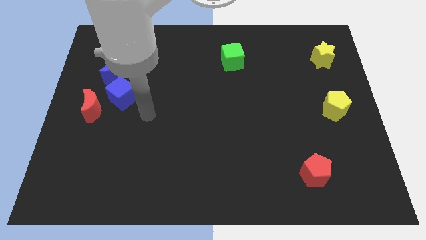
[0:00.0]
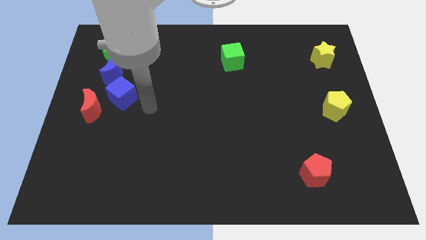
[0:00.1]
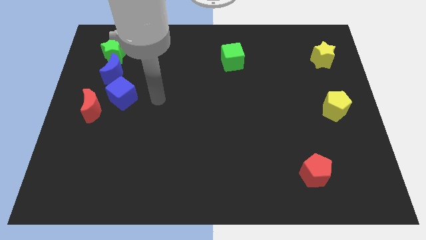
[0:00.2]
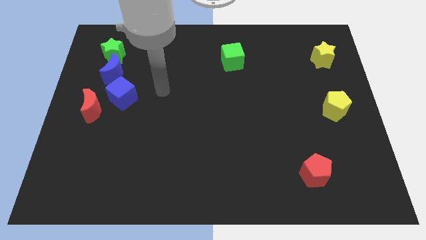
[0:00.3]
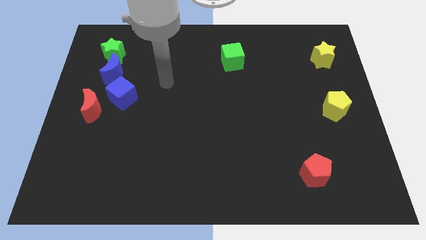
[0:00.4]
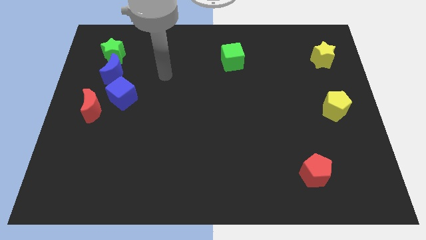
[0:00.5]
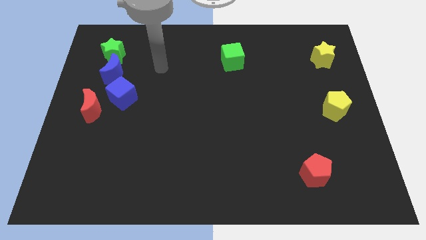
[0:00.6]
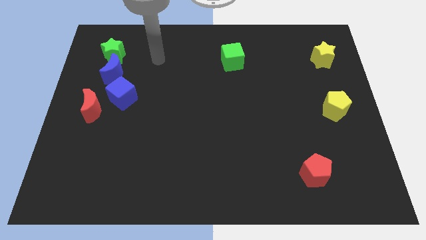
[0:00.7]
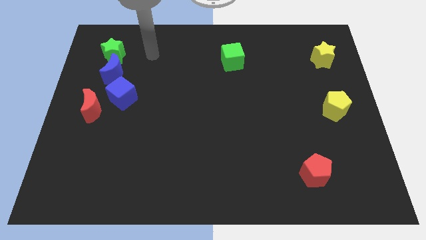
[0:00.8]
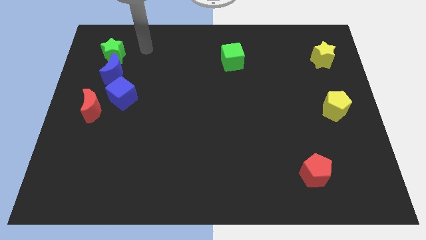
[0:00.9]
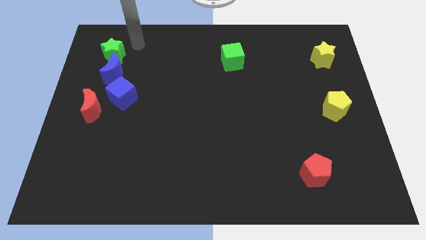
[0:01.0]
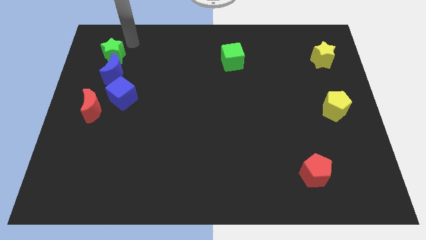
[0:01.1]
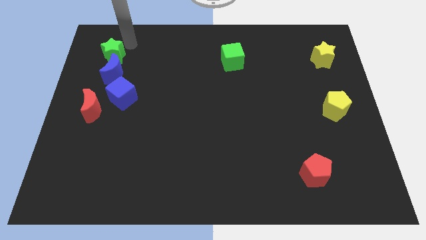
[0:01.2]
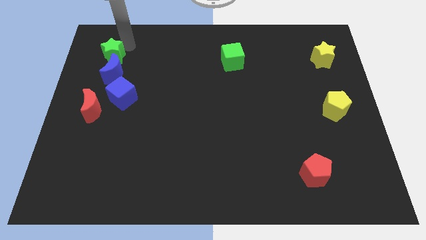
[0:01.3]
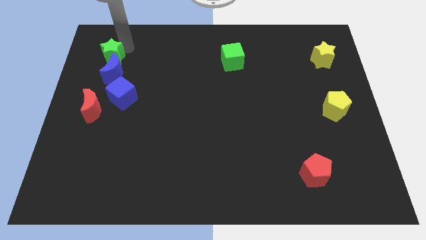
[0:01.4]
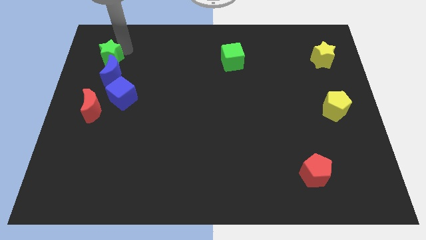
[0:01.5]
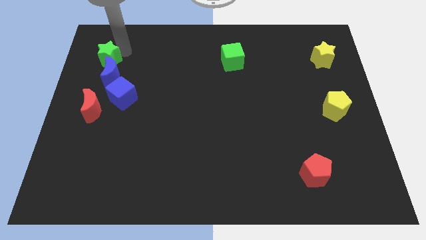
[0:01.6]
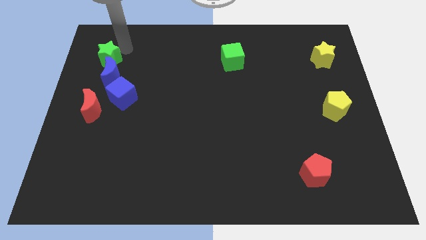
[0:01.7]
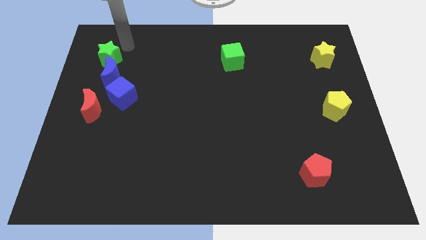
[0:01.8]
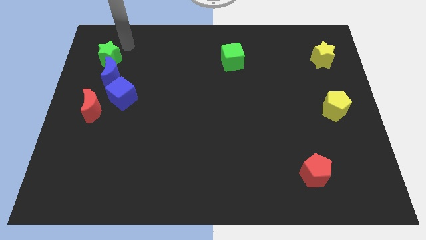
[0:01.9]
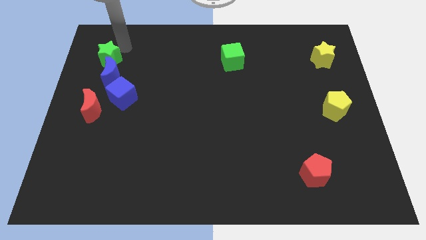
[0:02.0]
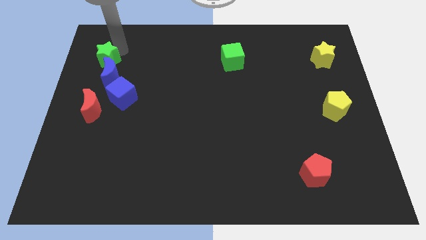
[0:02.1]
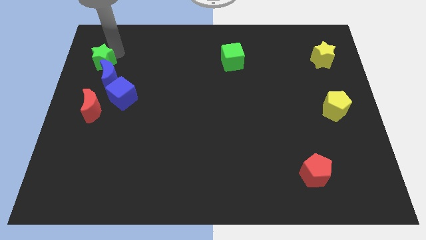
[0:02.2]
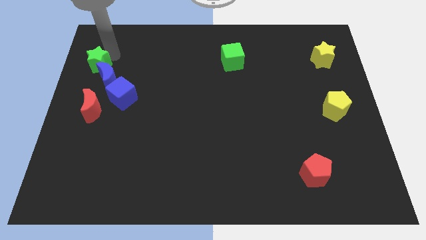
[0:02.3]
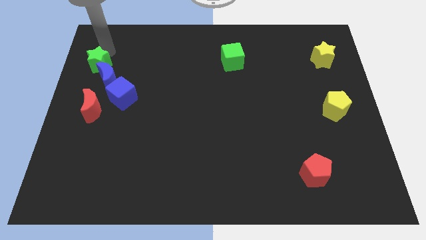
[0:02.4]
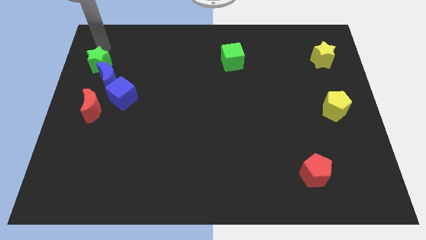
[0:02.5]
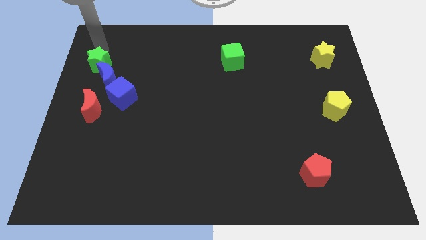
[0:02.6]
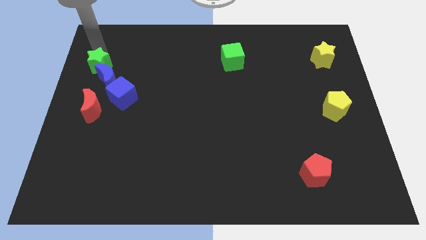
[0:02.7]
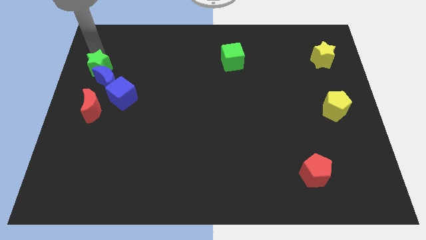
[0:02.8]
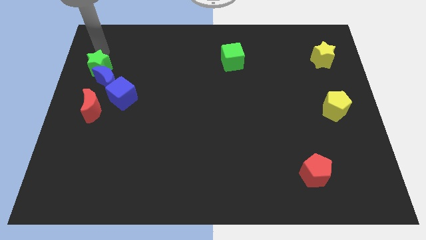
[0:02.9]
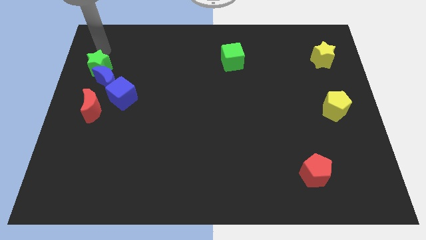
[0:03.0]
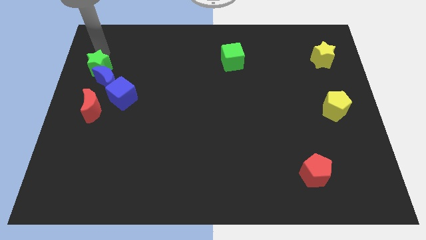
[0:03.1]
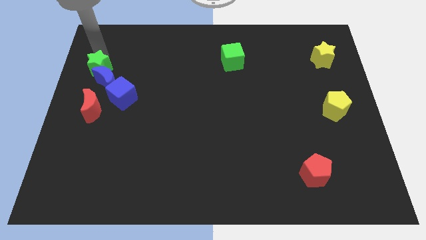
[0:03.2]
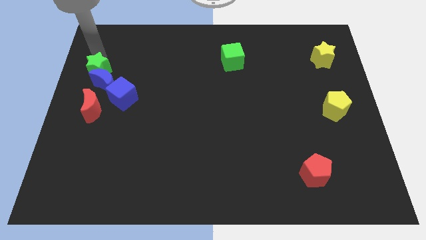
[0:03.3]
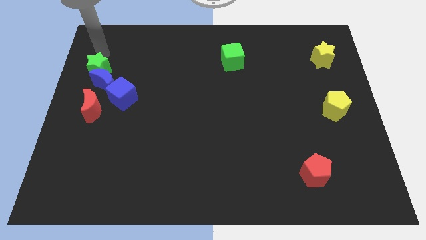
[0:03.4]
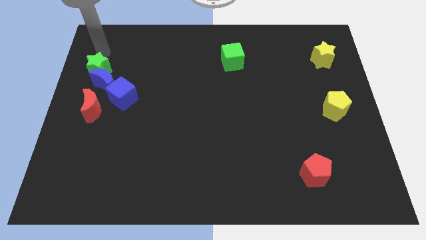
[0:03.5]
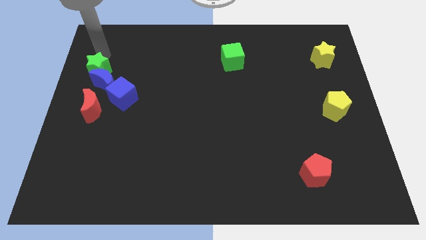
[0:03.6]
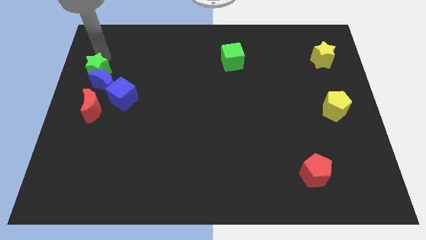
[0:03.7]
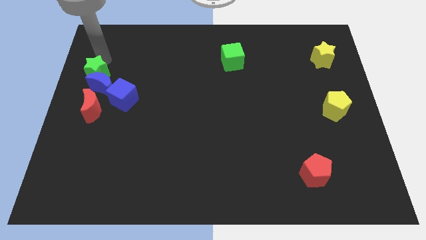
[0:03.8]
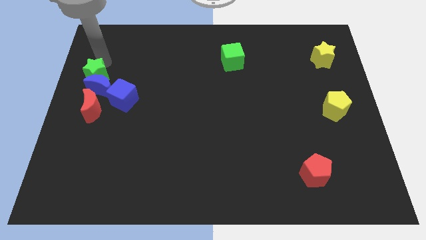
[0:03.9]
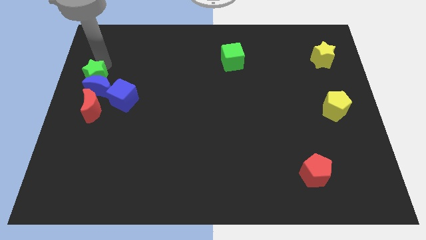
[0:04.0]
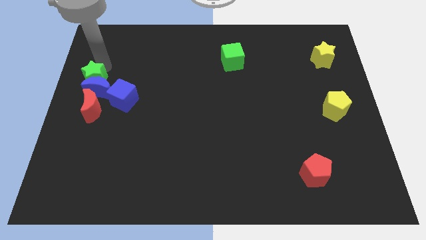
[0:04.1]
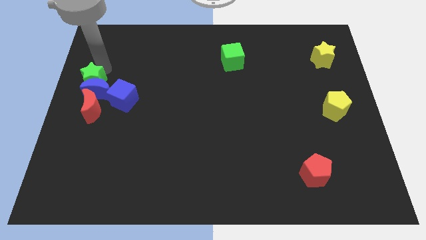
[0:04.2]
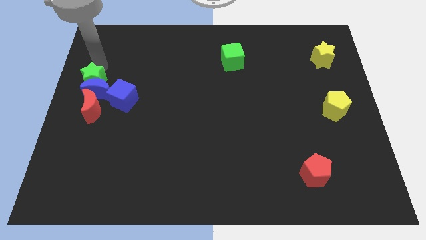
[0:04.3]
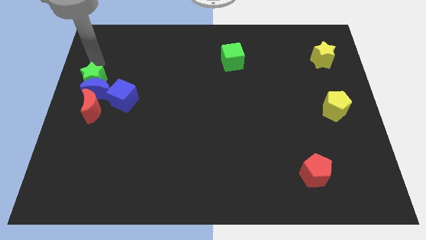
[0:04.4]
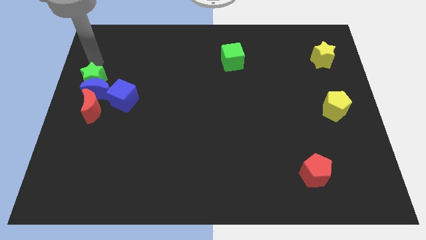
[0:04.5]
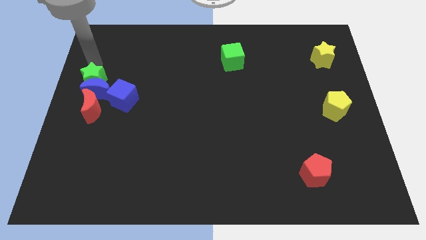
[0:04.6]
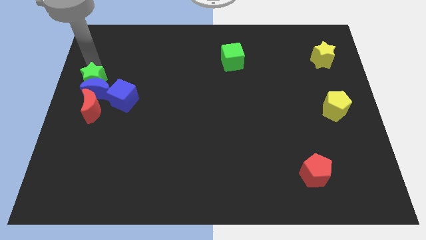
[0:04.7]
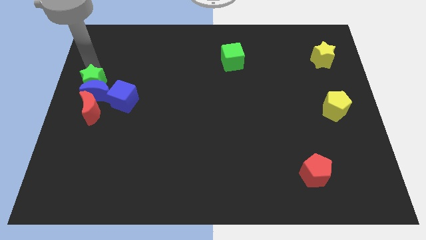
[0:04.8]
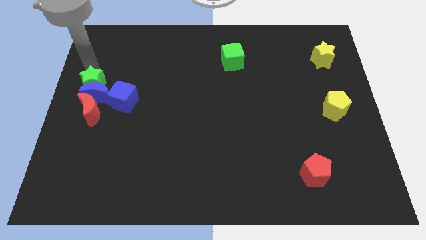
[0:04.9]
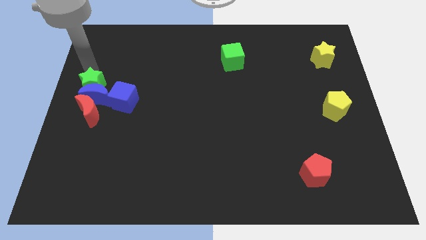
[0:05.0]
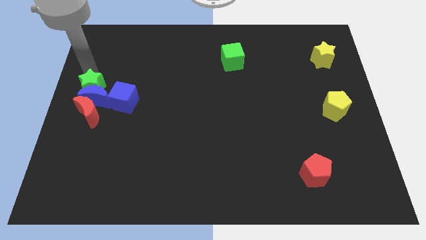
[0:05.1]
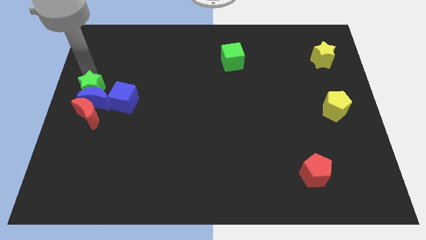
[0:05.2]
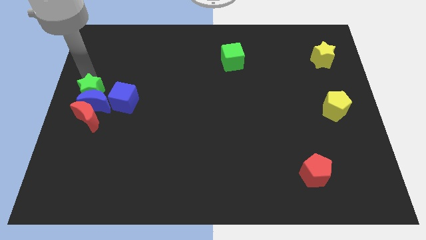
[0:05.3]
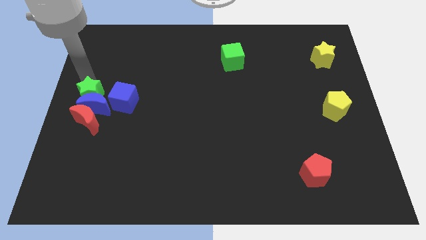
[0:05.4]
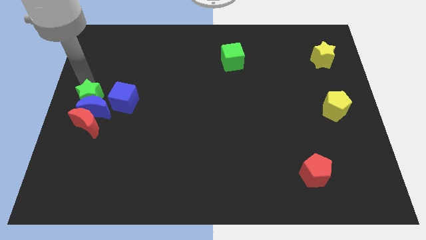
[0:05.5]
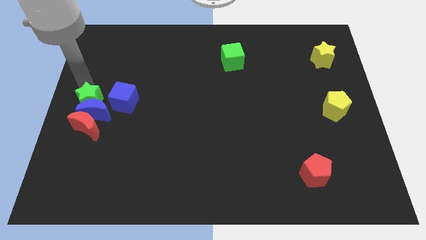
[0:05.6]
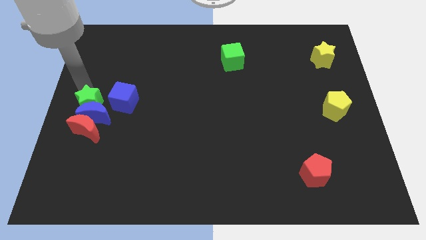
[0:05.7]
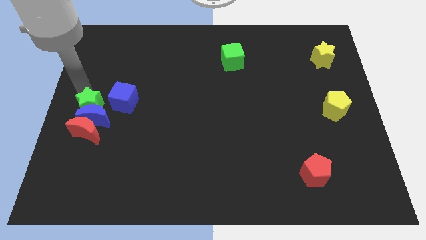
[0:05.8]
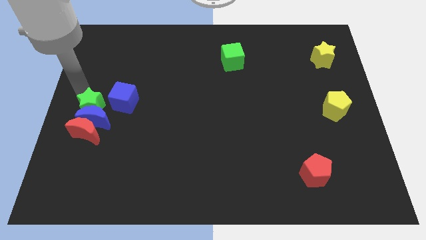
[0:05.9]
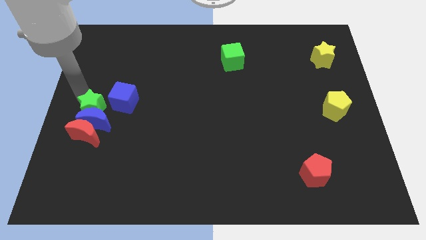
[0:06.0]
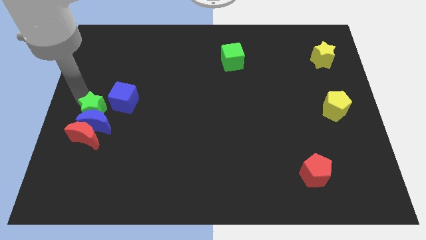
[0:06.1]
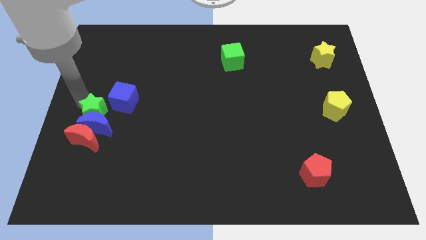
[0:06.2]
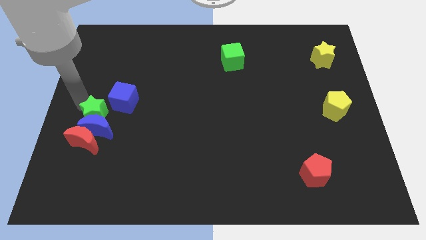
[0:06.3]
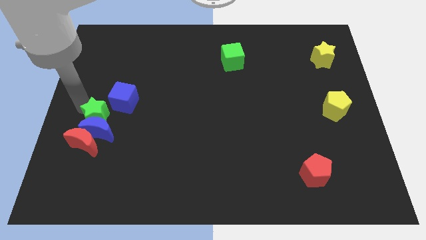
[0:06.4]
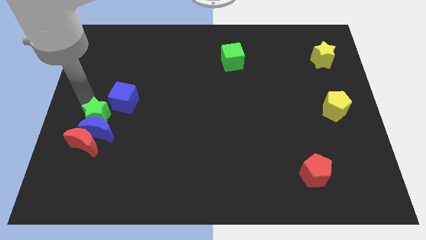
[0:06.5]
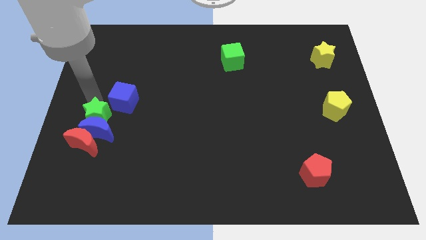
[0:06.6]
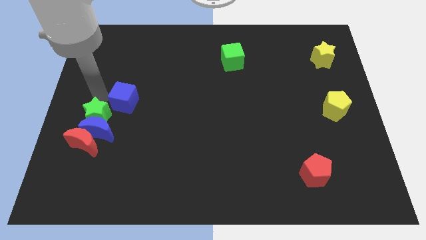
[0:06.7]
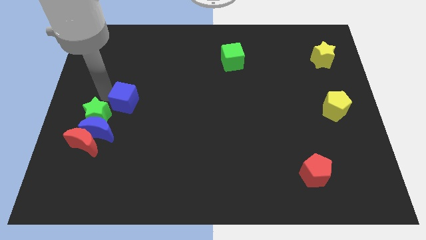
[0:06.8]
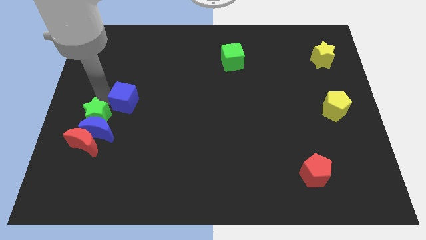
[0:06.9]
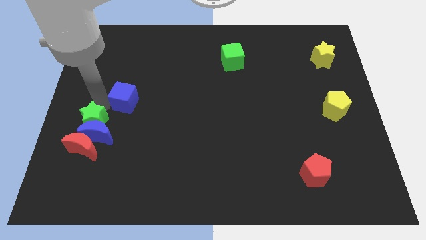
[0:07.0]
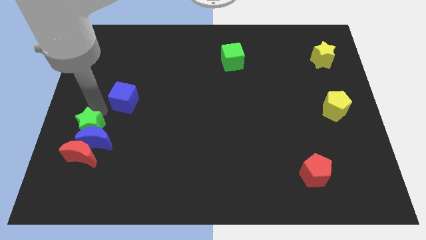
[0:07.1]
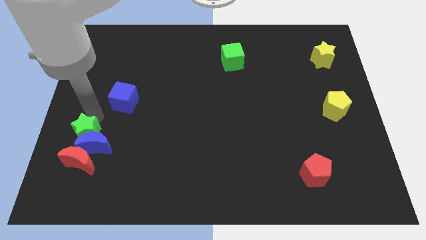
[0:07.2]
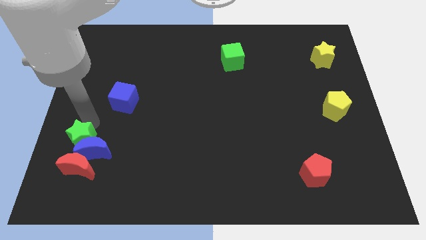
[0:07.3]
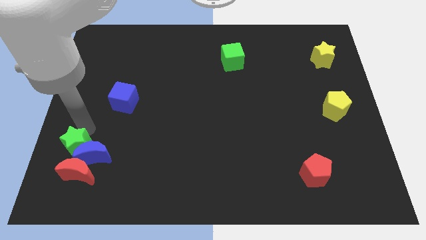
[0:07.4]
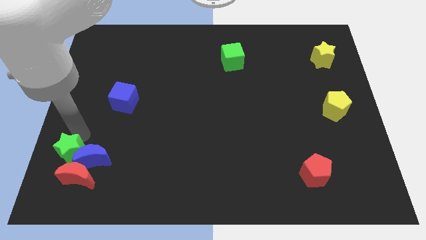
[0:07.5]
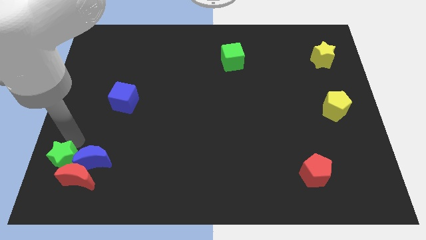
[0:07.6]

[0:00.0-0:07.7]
put the green star next to the red moon
